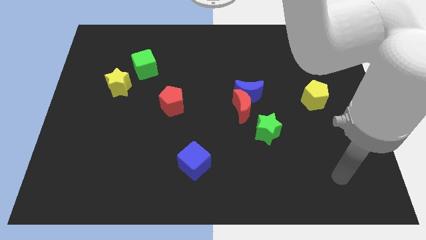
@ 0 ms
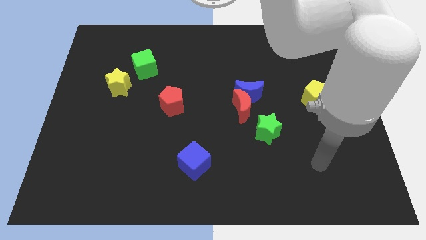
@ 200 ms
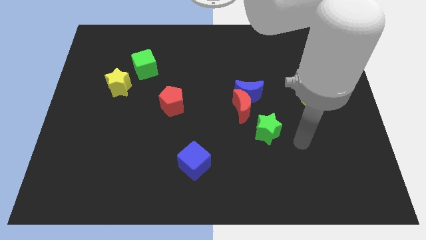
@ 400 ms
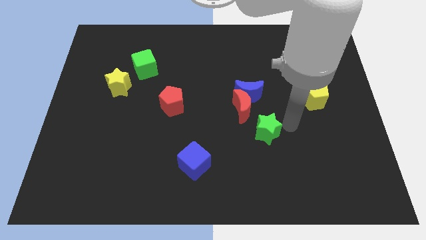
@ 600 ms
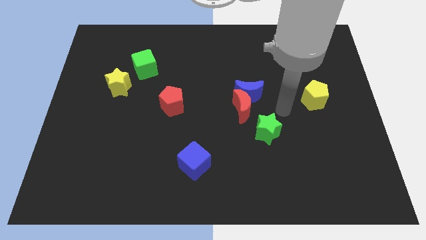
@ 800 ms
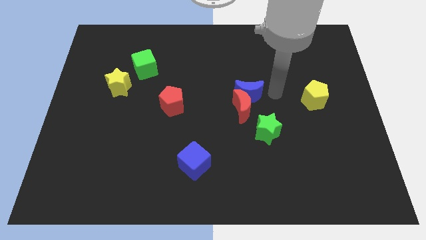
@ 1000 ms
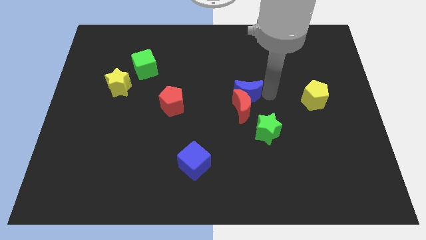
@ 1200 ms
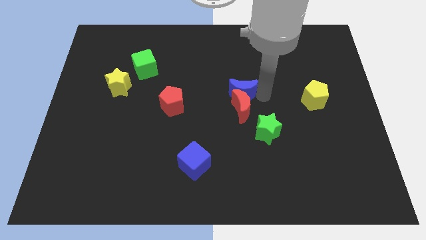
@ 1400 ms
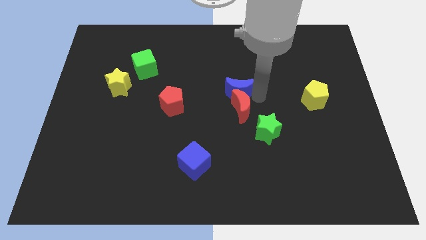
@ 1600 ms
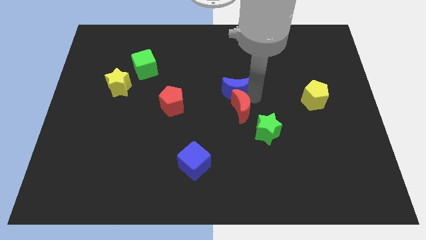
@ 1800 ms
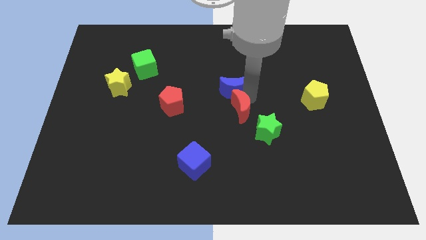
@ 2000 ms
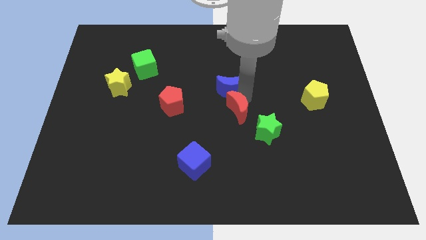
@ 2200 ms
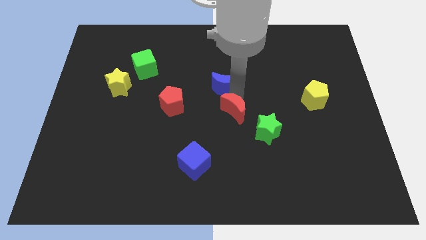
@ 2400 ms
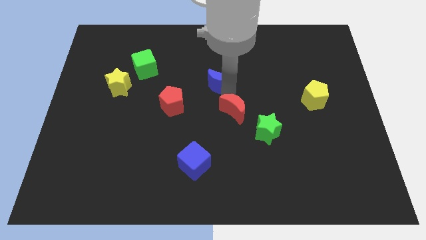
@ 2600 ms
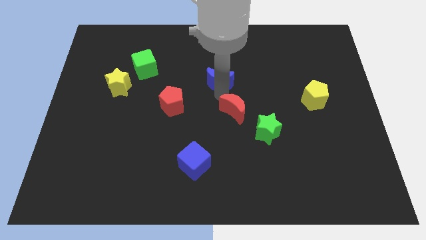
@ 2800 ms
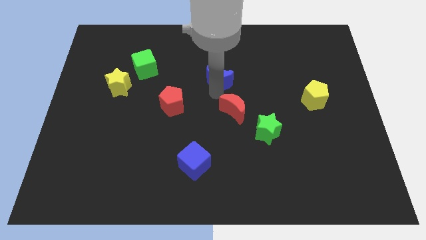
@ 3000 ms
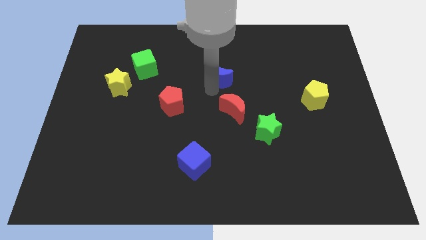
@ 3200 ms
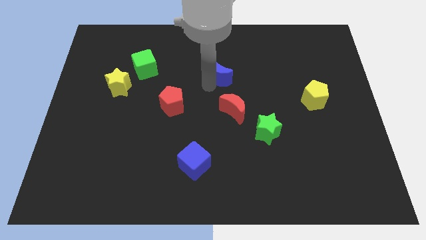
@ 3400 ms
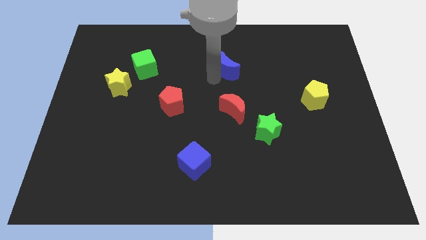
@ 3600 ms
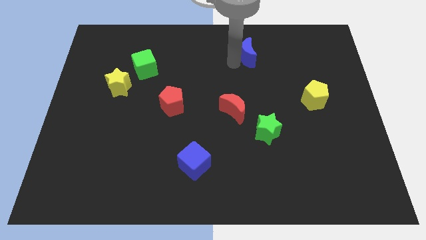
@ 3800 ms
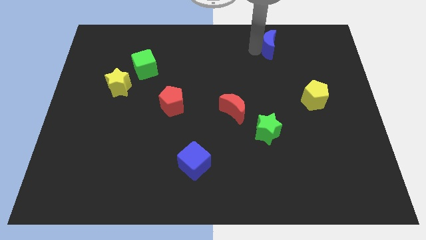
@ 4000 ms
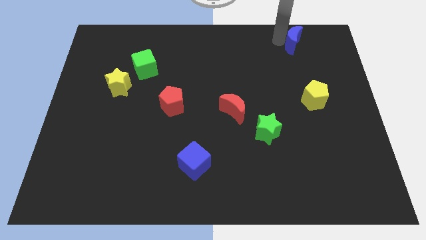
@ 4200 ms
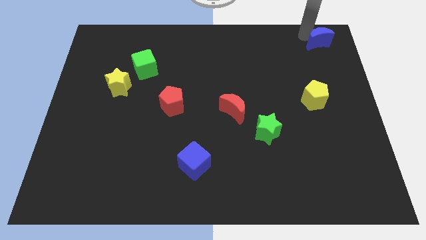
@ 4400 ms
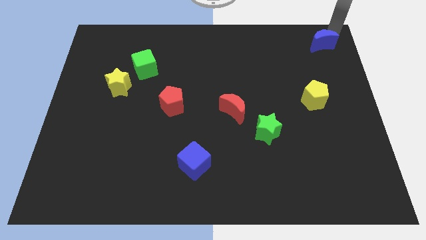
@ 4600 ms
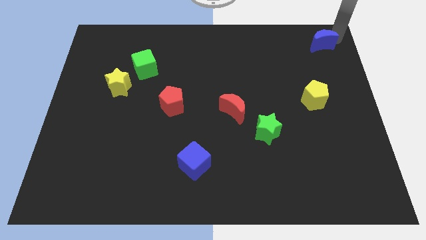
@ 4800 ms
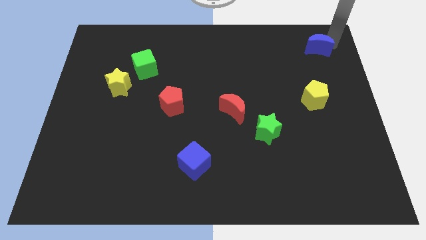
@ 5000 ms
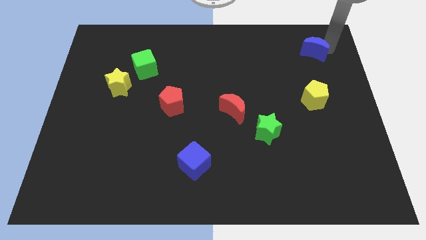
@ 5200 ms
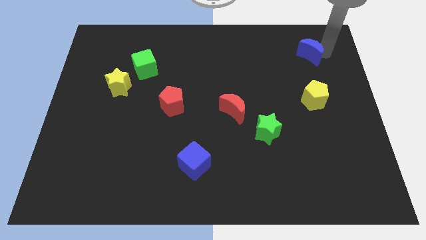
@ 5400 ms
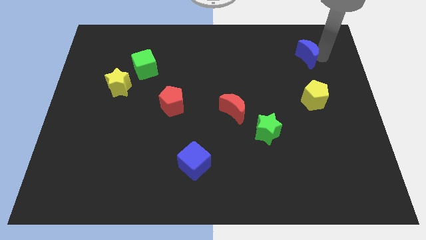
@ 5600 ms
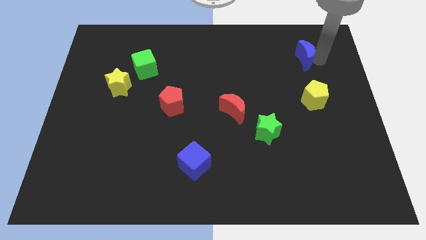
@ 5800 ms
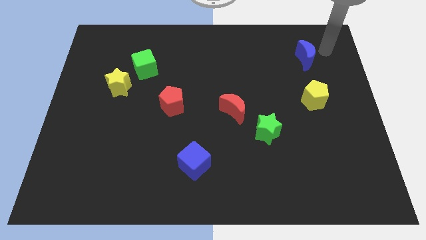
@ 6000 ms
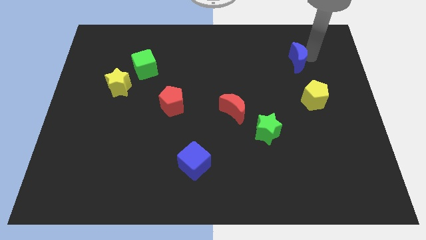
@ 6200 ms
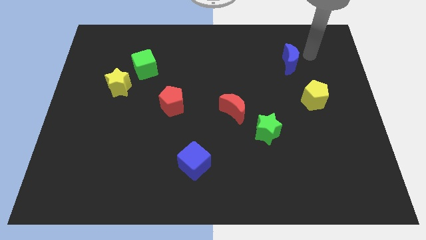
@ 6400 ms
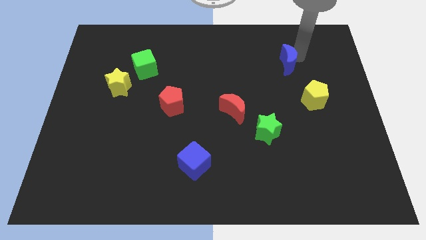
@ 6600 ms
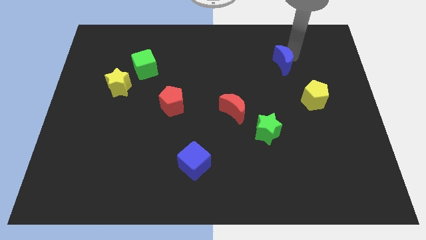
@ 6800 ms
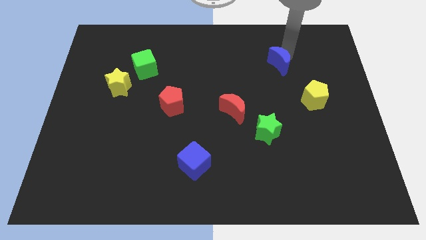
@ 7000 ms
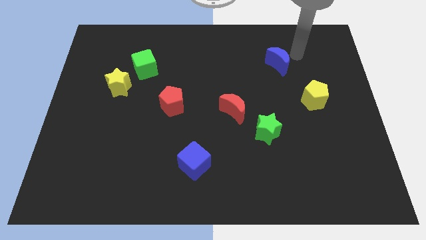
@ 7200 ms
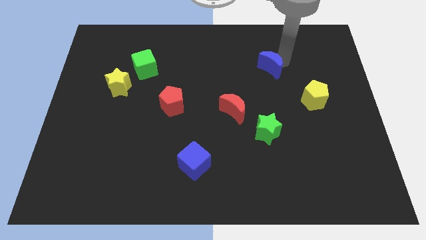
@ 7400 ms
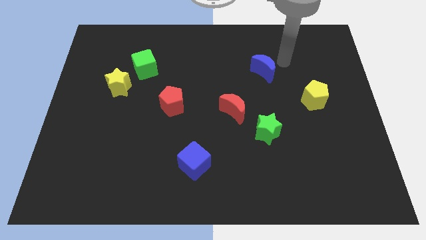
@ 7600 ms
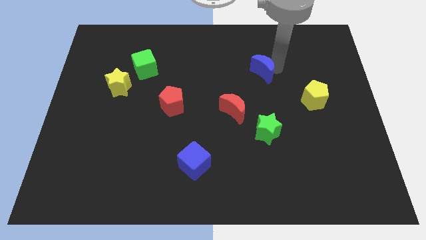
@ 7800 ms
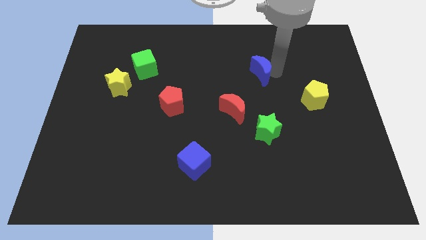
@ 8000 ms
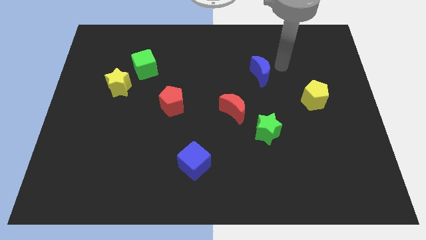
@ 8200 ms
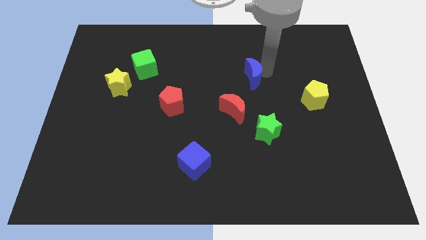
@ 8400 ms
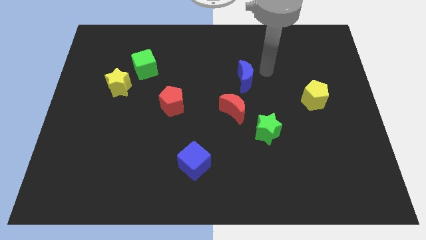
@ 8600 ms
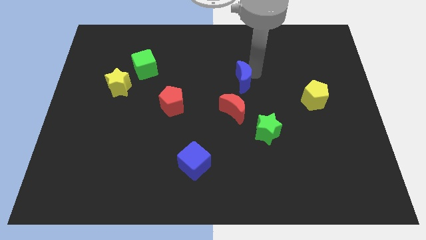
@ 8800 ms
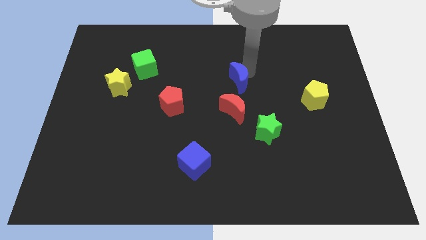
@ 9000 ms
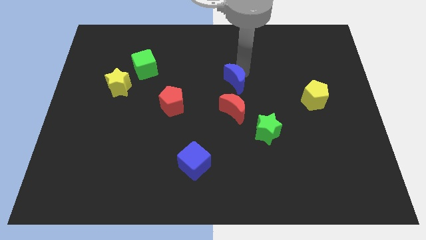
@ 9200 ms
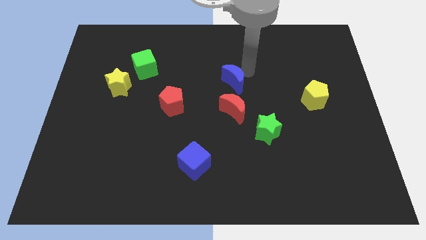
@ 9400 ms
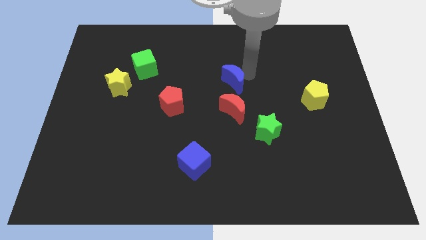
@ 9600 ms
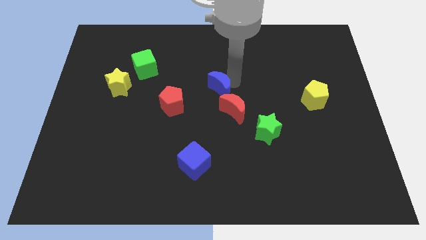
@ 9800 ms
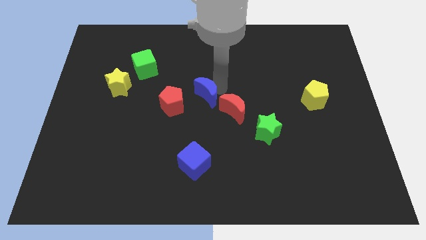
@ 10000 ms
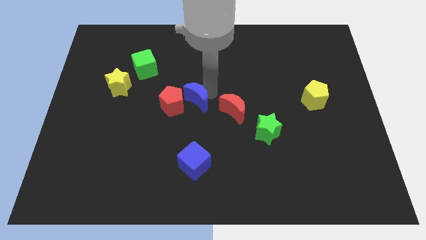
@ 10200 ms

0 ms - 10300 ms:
put the blue moon close to the red pentagon

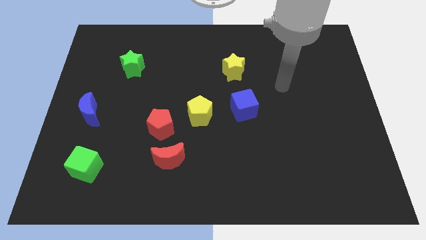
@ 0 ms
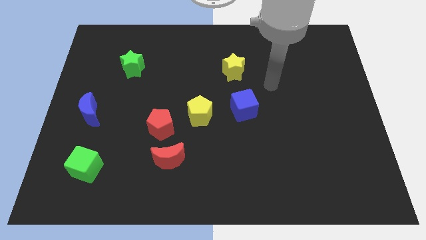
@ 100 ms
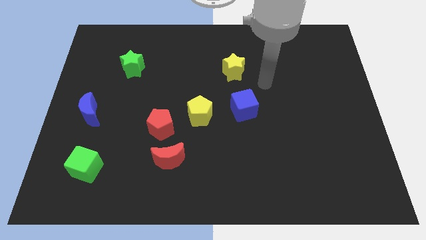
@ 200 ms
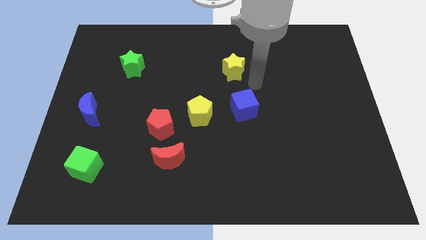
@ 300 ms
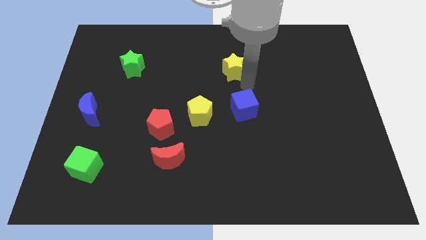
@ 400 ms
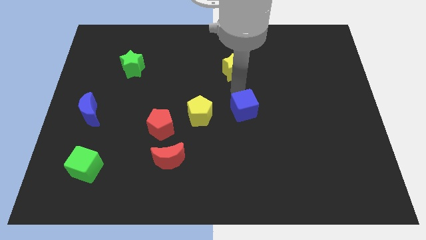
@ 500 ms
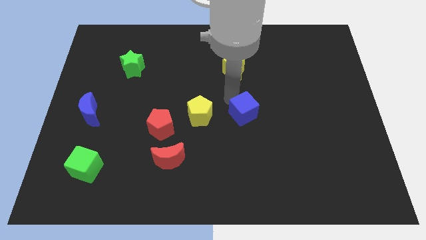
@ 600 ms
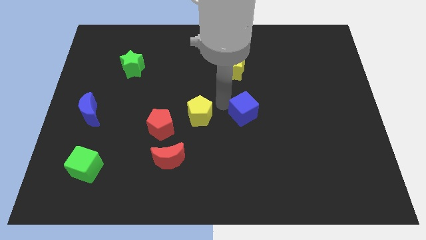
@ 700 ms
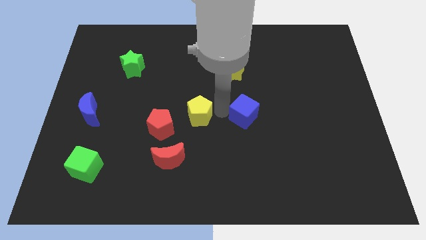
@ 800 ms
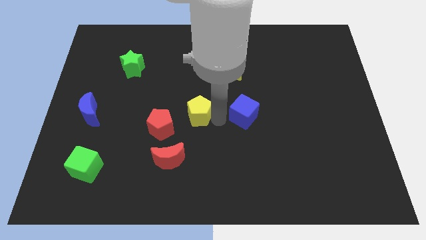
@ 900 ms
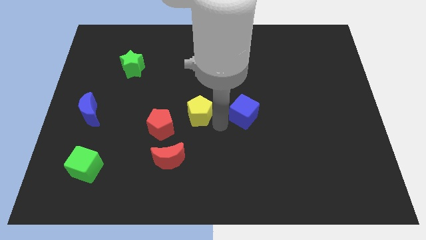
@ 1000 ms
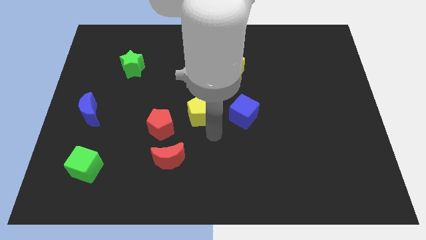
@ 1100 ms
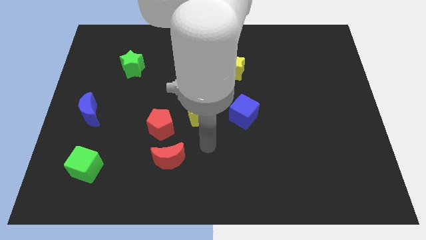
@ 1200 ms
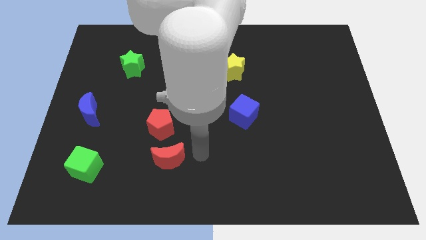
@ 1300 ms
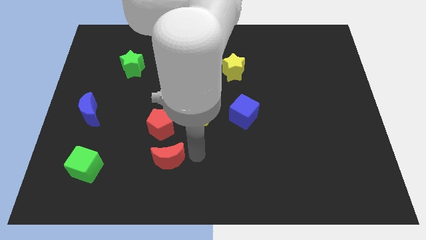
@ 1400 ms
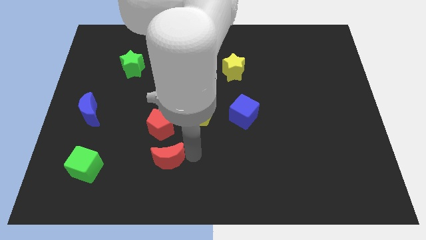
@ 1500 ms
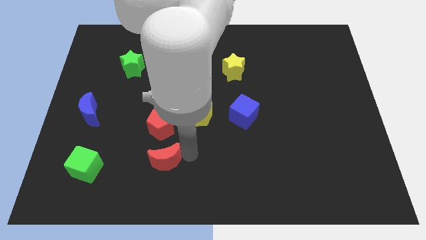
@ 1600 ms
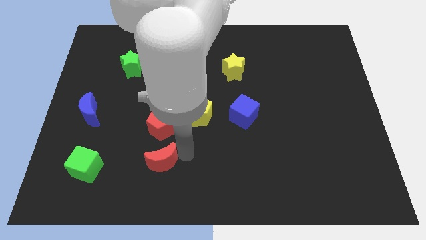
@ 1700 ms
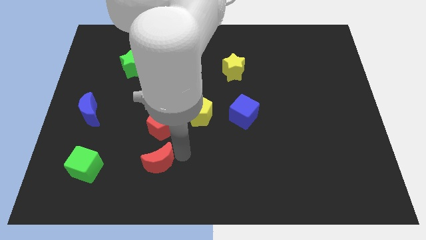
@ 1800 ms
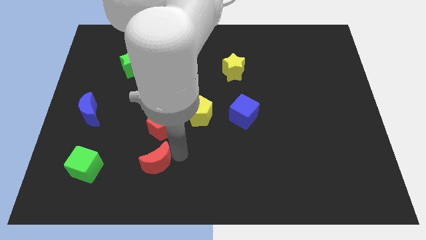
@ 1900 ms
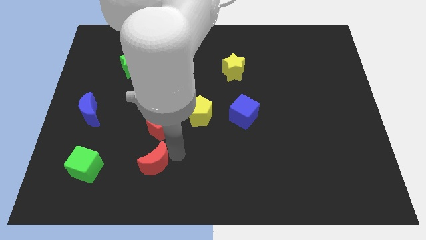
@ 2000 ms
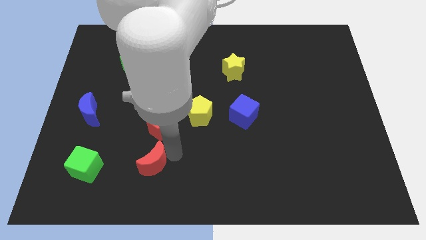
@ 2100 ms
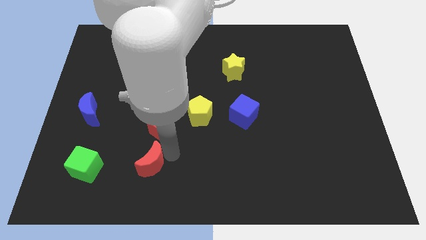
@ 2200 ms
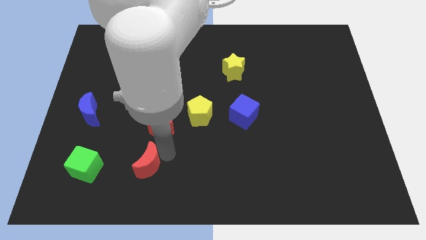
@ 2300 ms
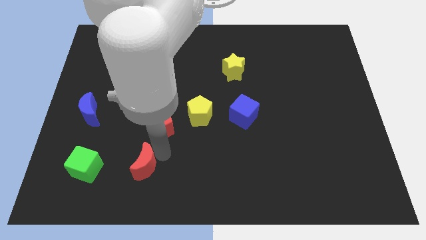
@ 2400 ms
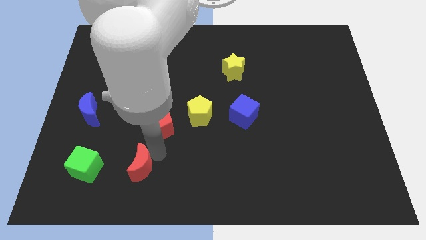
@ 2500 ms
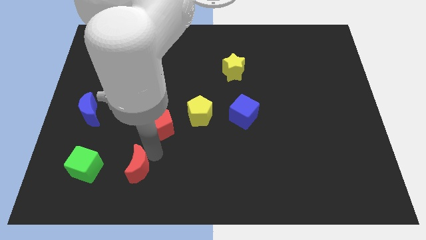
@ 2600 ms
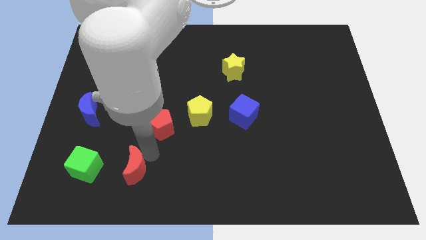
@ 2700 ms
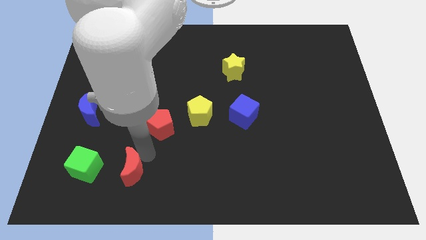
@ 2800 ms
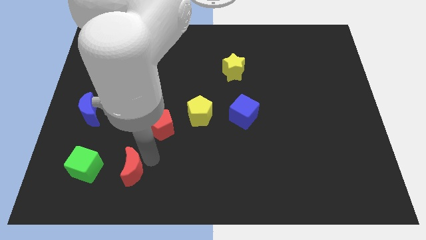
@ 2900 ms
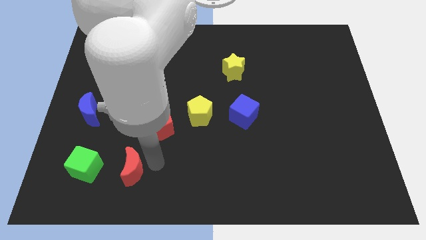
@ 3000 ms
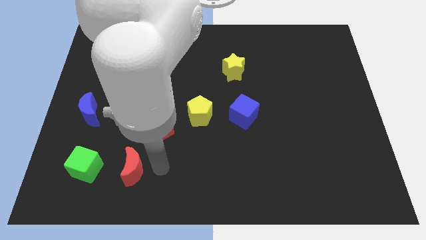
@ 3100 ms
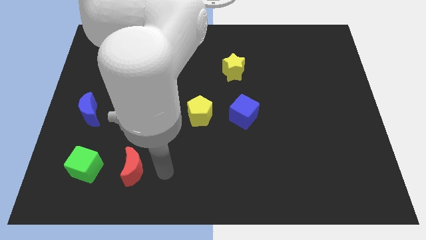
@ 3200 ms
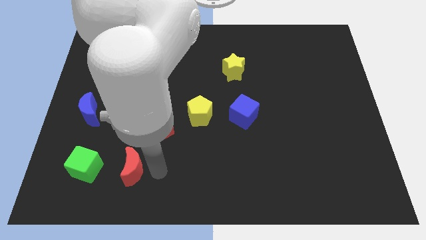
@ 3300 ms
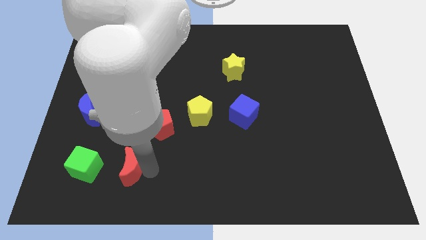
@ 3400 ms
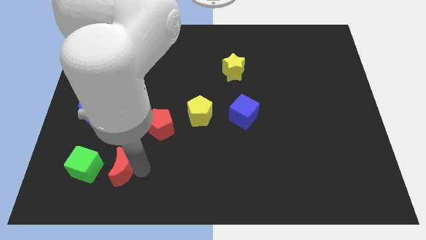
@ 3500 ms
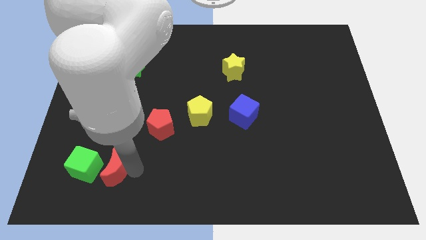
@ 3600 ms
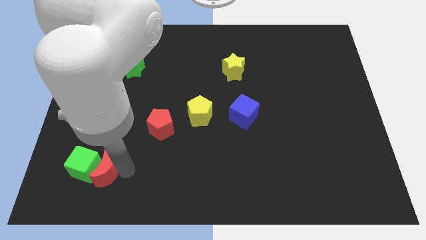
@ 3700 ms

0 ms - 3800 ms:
push the red moon towards the green cube
